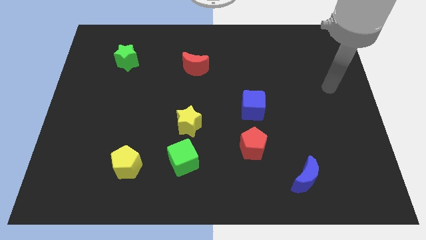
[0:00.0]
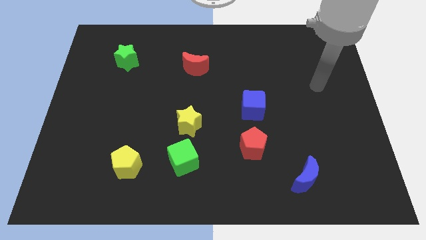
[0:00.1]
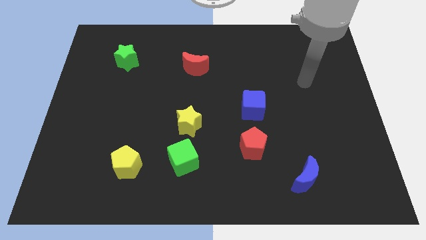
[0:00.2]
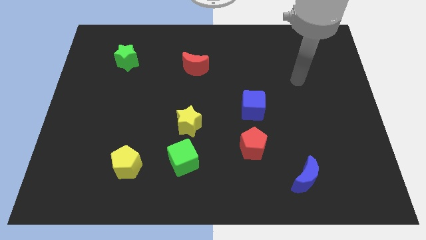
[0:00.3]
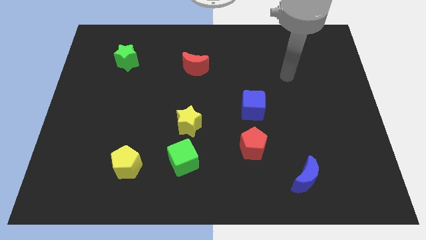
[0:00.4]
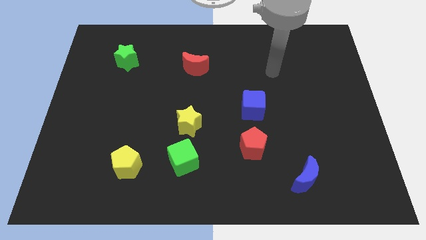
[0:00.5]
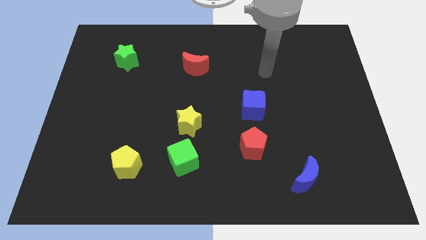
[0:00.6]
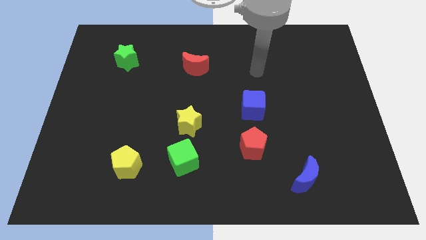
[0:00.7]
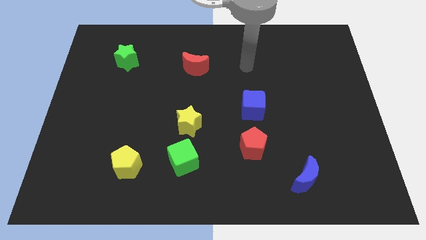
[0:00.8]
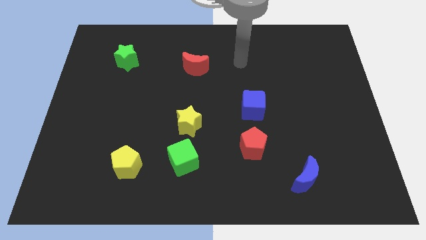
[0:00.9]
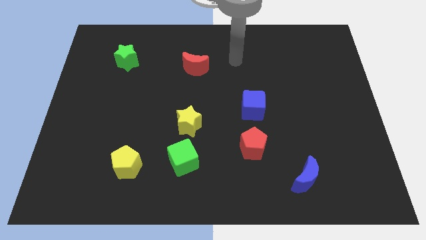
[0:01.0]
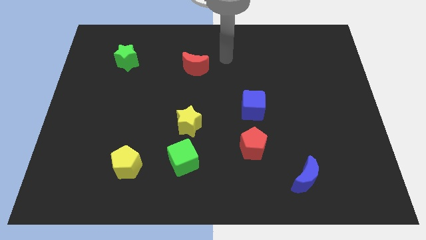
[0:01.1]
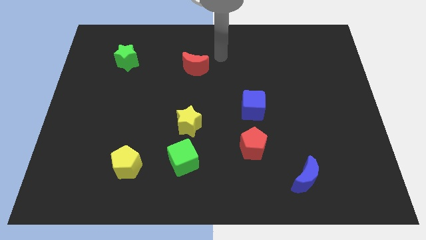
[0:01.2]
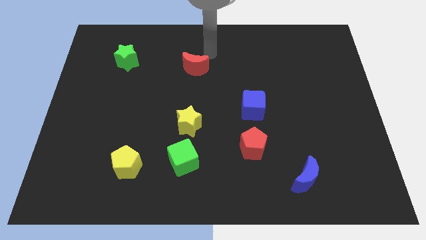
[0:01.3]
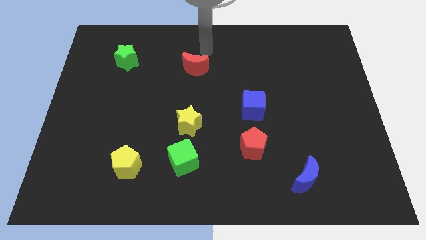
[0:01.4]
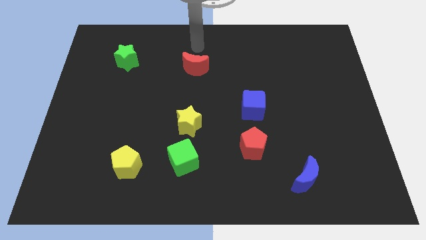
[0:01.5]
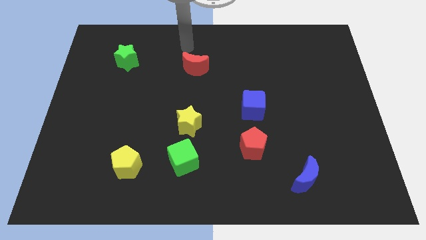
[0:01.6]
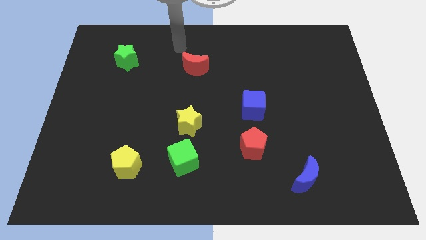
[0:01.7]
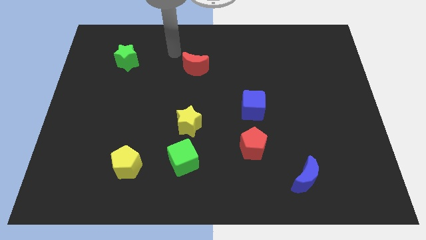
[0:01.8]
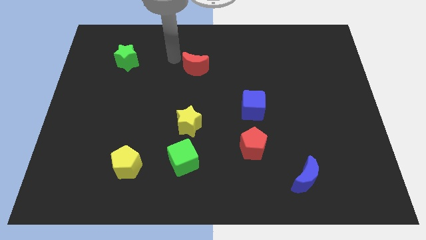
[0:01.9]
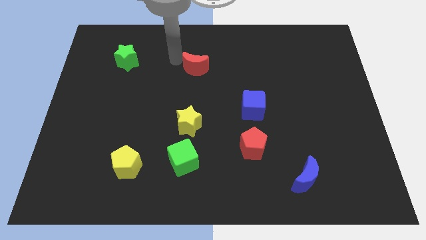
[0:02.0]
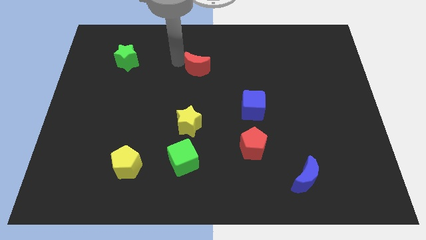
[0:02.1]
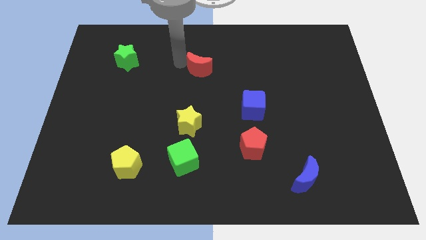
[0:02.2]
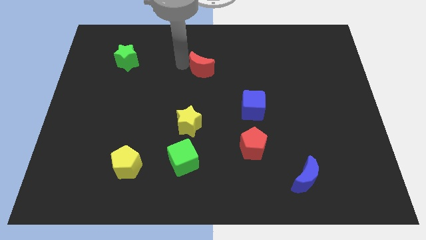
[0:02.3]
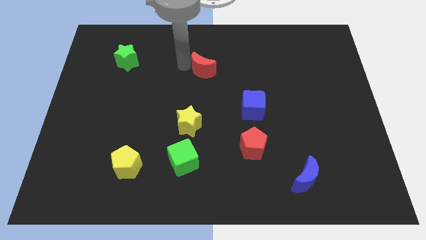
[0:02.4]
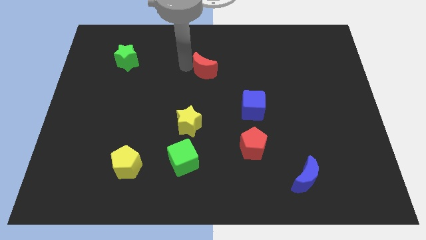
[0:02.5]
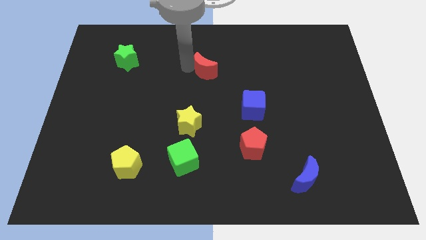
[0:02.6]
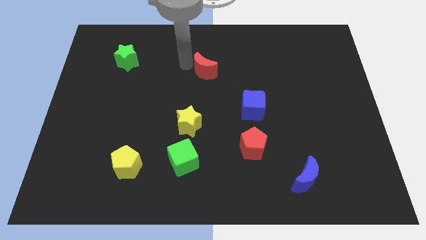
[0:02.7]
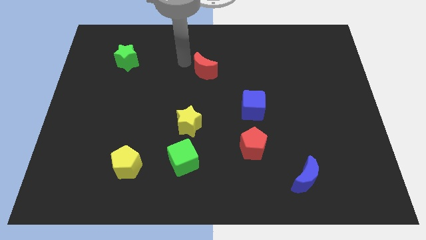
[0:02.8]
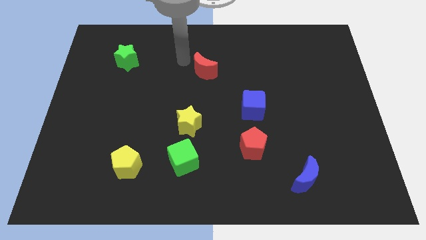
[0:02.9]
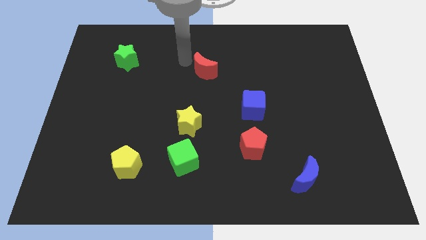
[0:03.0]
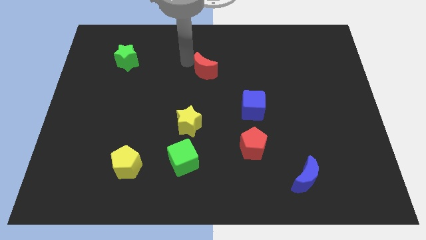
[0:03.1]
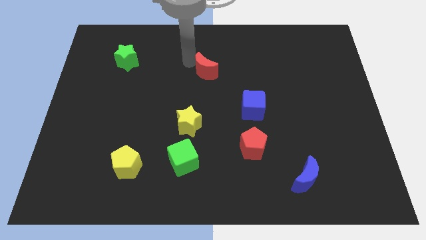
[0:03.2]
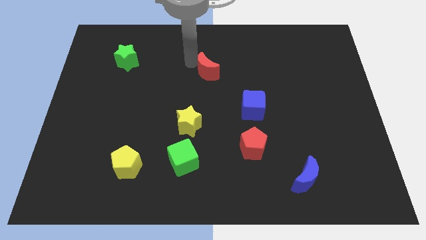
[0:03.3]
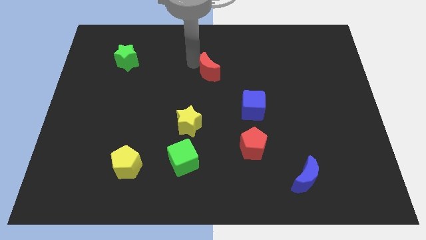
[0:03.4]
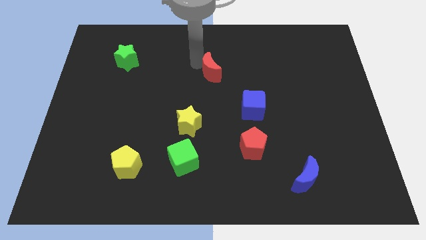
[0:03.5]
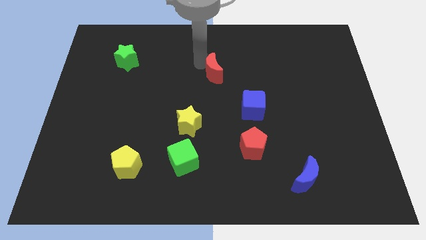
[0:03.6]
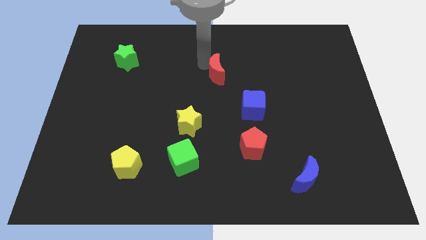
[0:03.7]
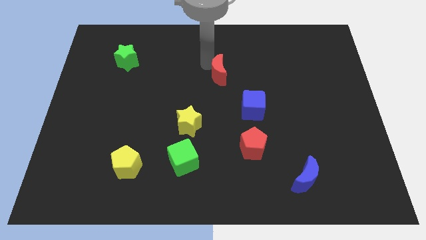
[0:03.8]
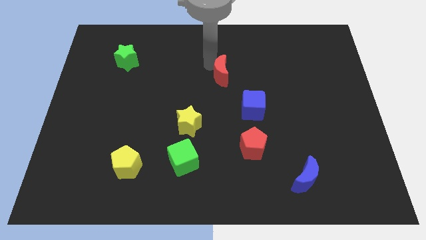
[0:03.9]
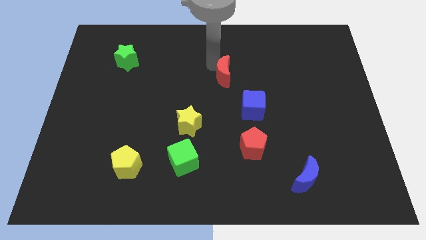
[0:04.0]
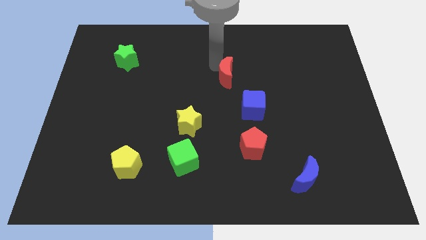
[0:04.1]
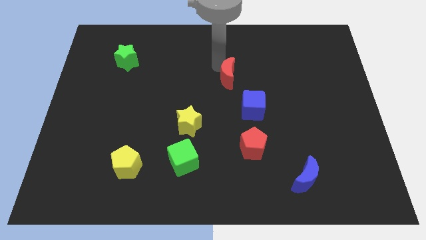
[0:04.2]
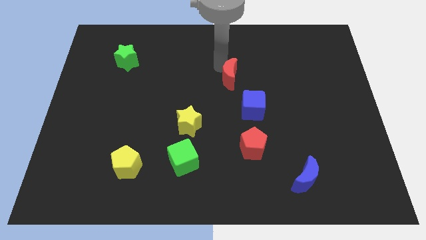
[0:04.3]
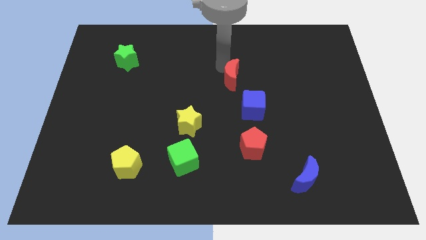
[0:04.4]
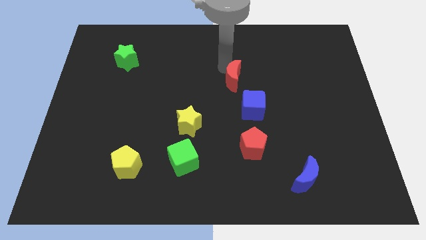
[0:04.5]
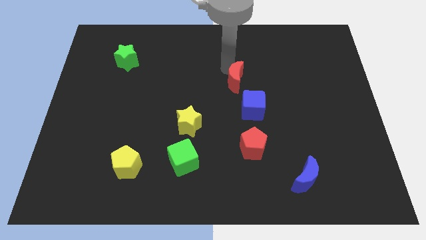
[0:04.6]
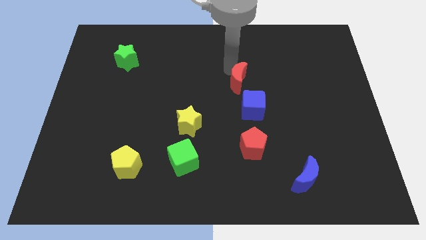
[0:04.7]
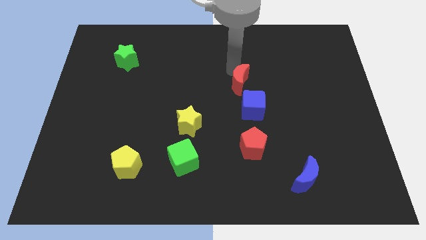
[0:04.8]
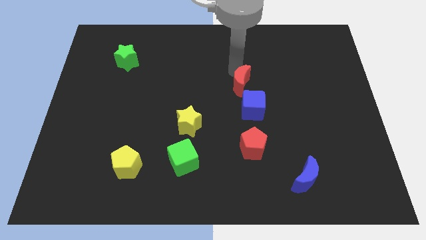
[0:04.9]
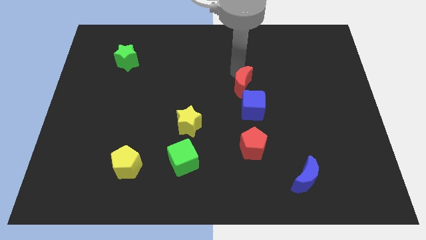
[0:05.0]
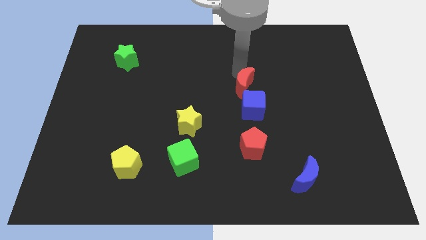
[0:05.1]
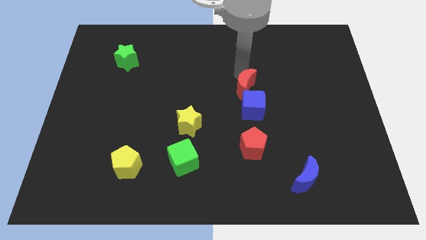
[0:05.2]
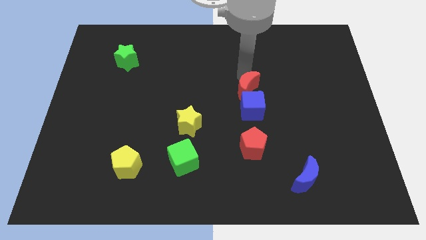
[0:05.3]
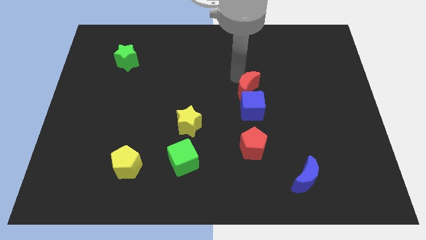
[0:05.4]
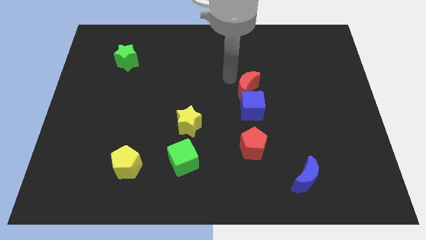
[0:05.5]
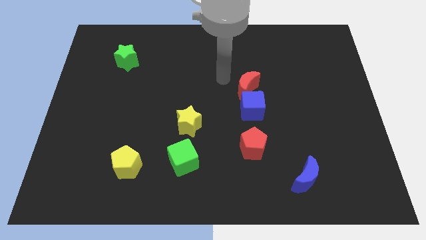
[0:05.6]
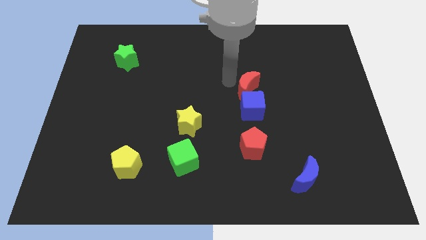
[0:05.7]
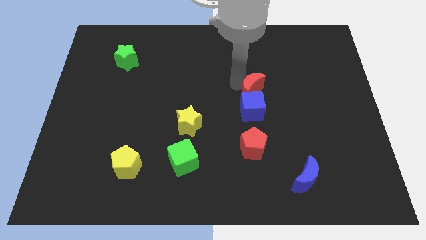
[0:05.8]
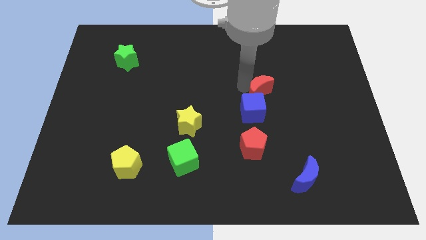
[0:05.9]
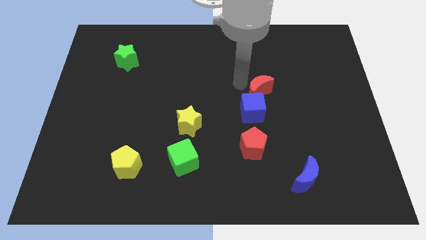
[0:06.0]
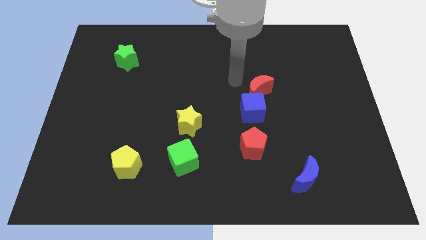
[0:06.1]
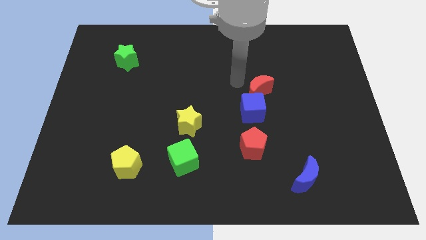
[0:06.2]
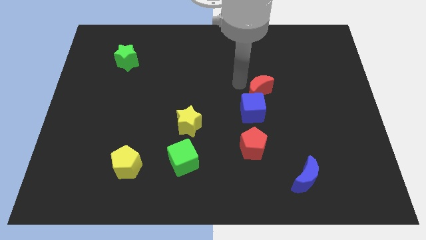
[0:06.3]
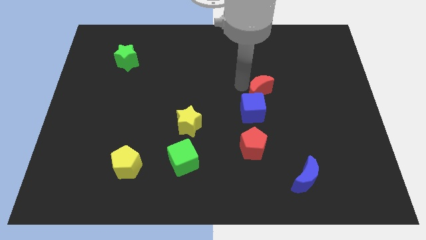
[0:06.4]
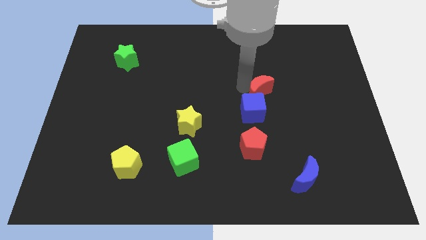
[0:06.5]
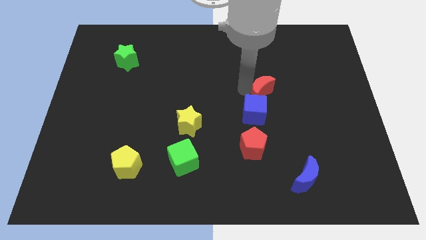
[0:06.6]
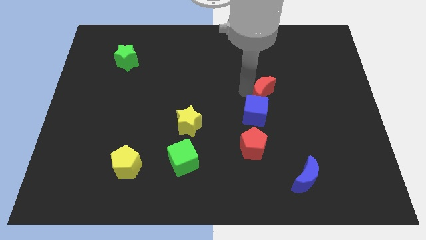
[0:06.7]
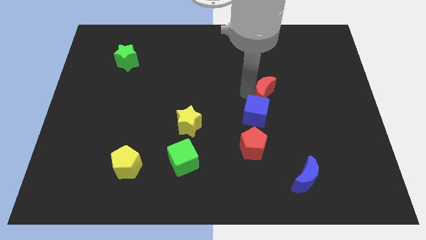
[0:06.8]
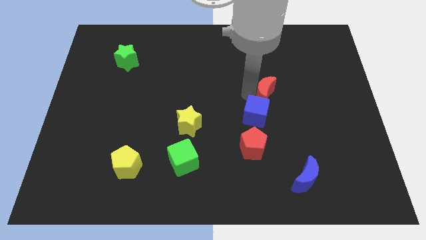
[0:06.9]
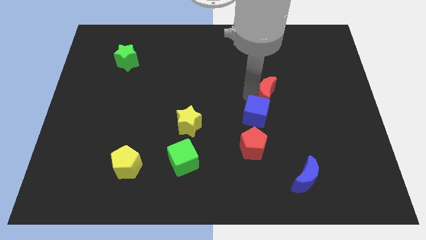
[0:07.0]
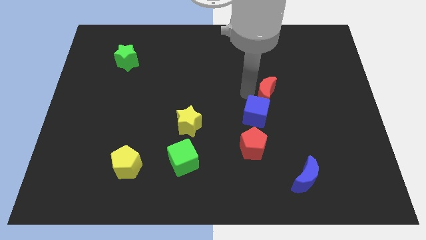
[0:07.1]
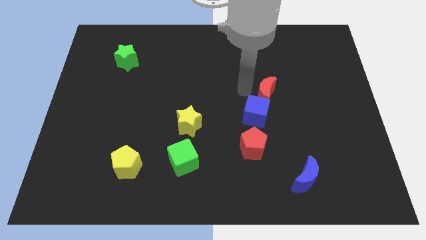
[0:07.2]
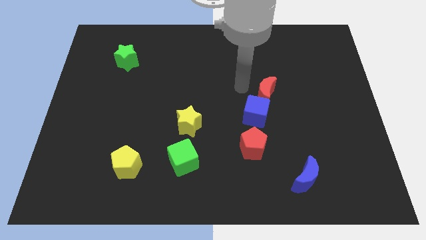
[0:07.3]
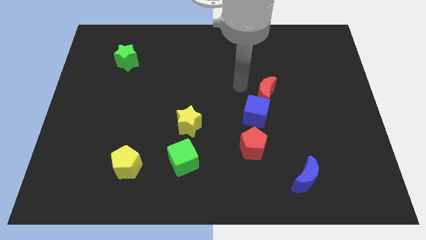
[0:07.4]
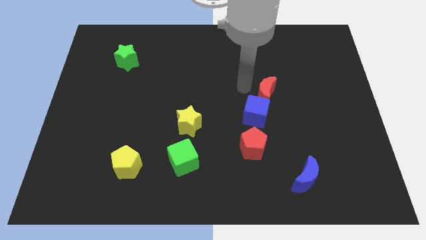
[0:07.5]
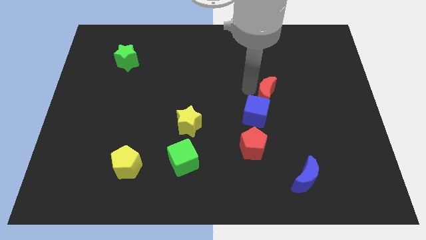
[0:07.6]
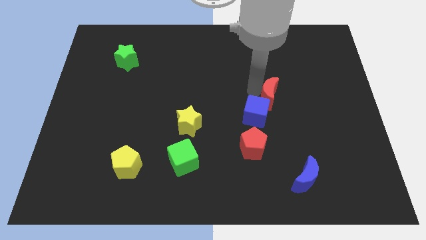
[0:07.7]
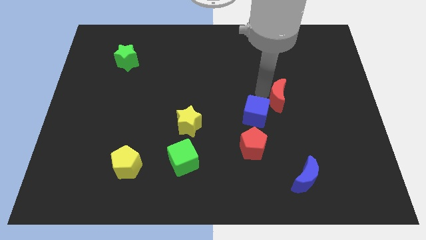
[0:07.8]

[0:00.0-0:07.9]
push the red moon to the right of the blue cube
